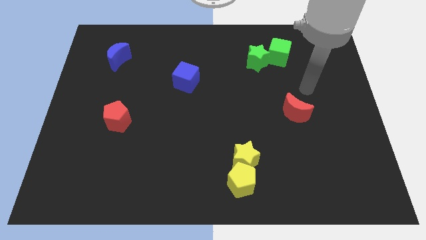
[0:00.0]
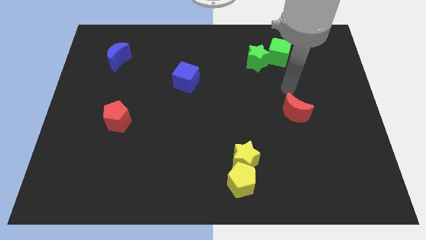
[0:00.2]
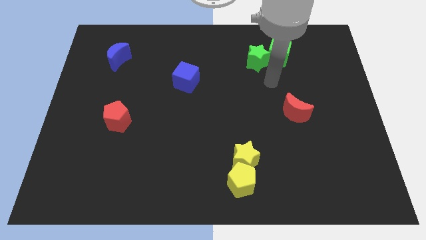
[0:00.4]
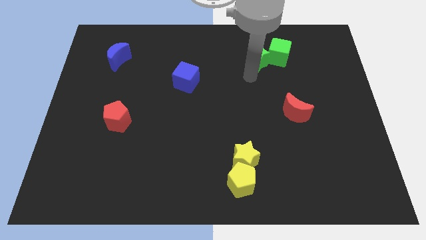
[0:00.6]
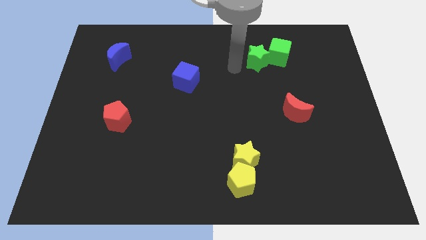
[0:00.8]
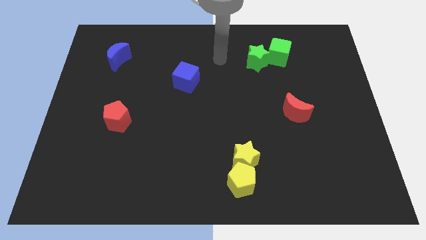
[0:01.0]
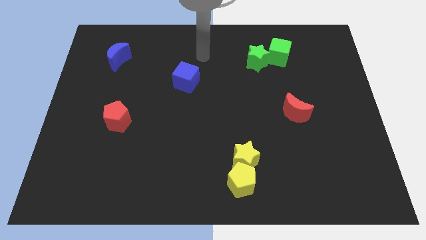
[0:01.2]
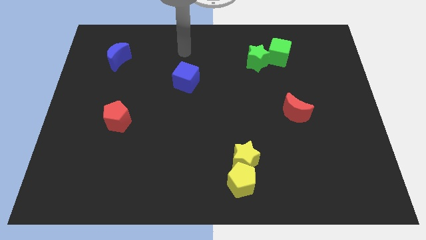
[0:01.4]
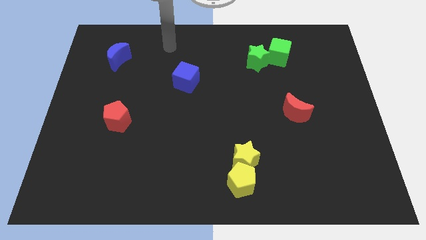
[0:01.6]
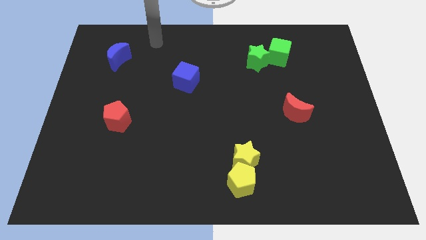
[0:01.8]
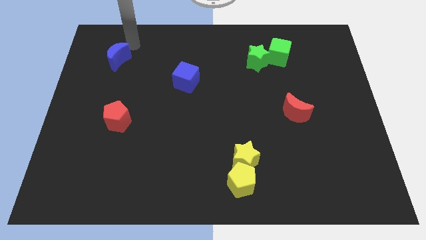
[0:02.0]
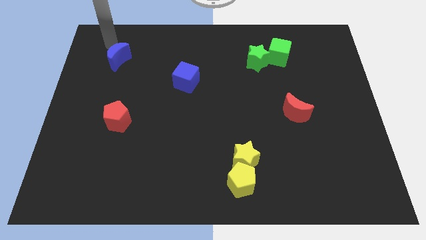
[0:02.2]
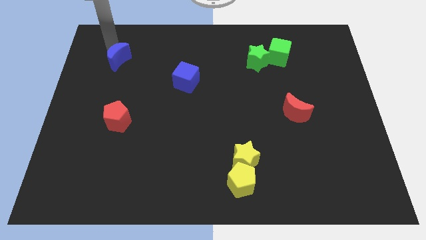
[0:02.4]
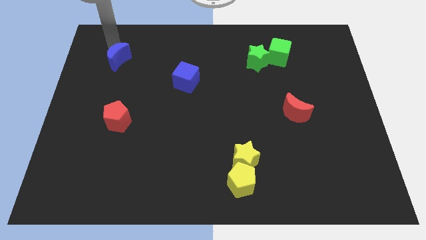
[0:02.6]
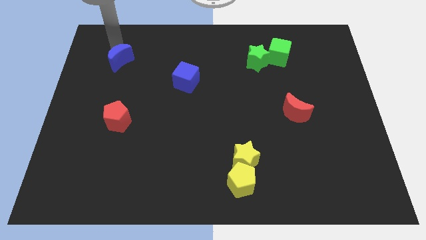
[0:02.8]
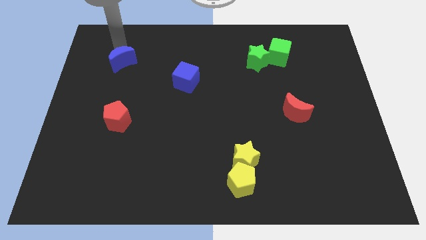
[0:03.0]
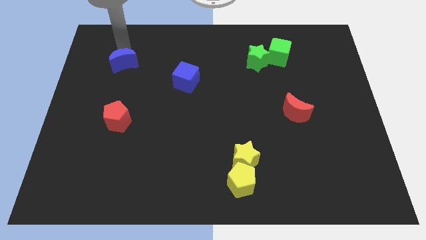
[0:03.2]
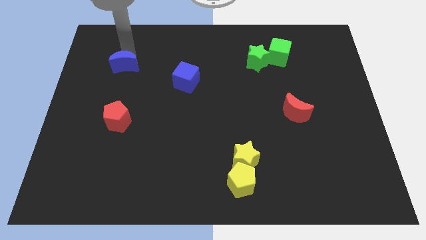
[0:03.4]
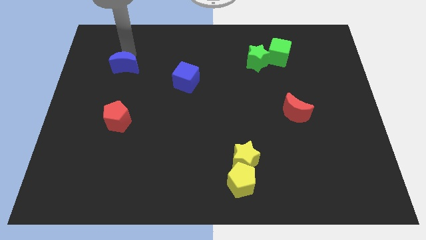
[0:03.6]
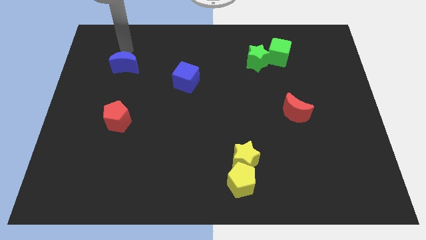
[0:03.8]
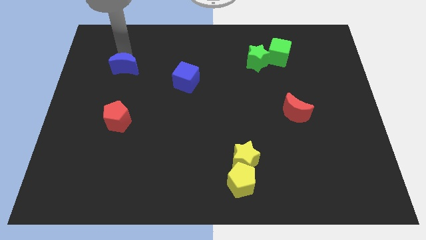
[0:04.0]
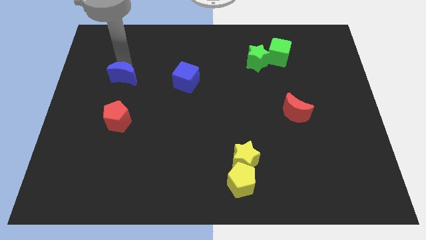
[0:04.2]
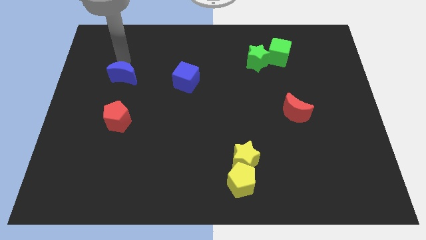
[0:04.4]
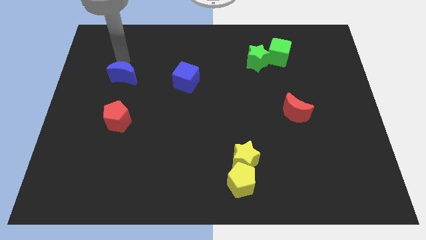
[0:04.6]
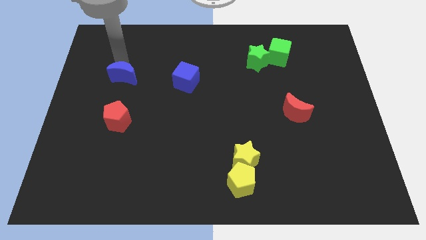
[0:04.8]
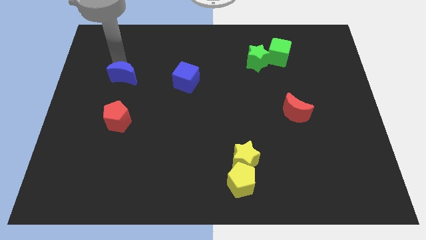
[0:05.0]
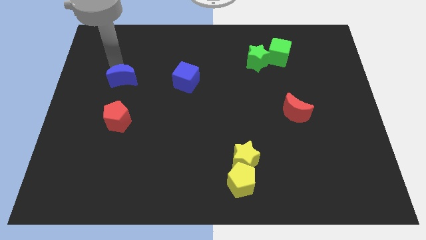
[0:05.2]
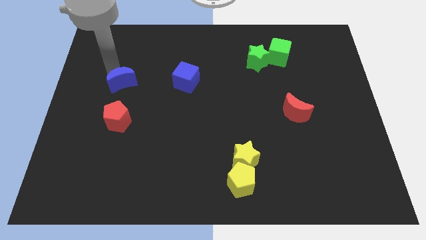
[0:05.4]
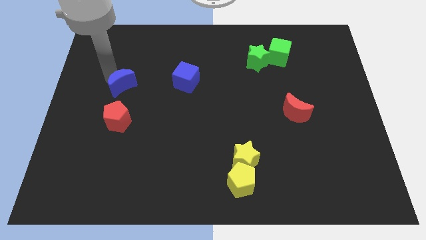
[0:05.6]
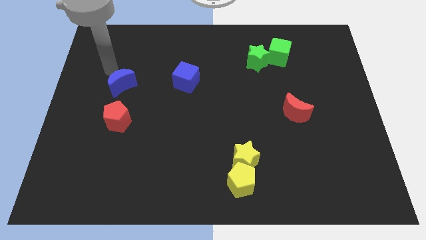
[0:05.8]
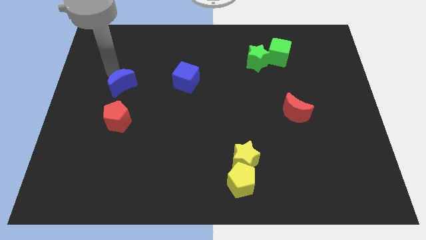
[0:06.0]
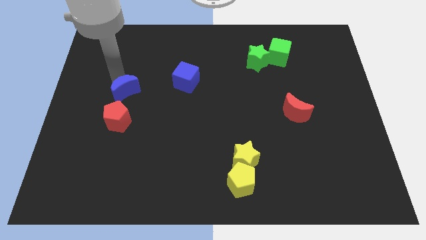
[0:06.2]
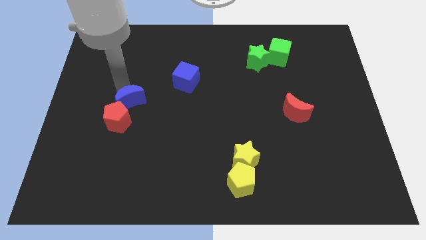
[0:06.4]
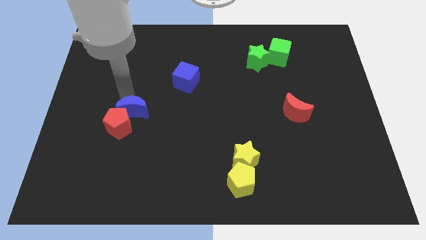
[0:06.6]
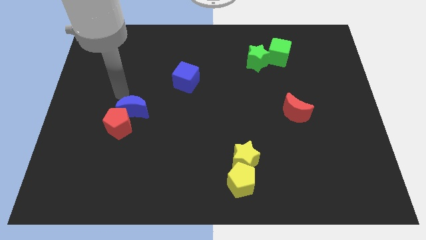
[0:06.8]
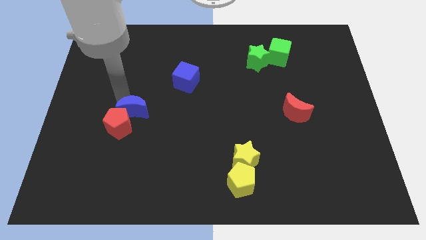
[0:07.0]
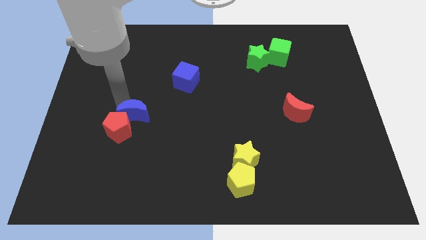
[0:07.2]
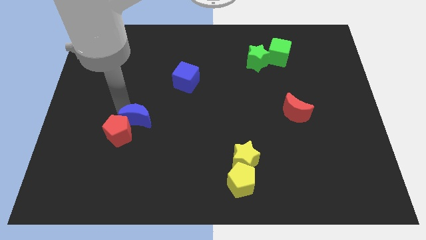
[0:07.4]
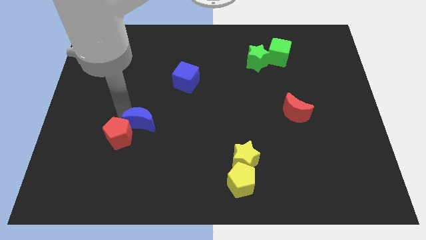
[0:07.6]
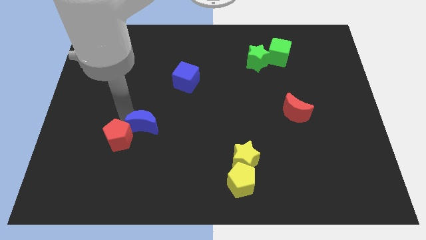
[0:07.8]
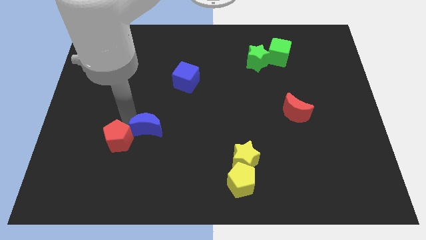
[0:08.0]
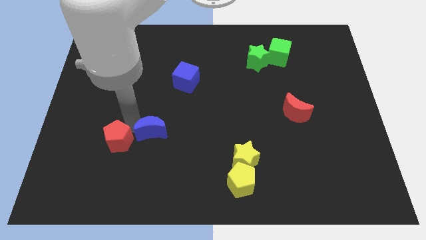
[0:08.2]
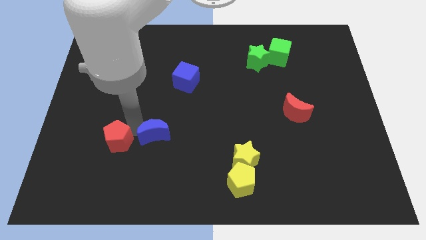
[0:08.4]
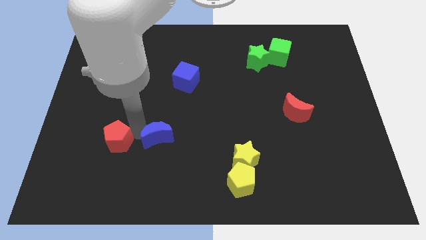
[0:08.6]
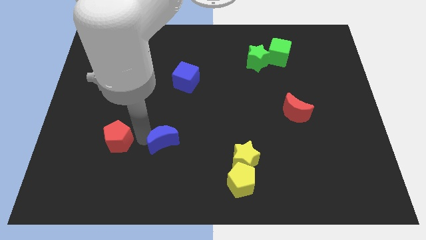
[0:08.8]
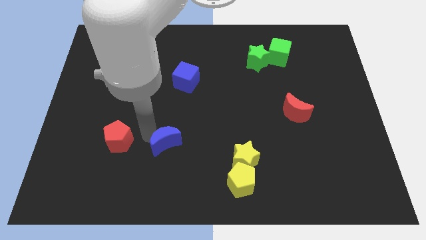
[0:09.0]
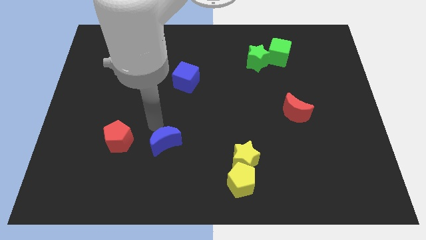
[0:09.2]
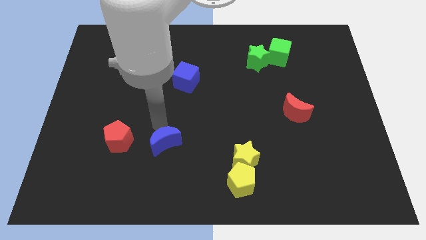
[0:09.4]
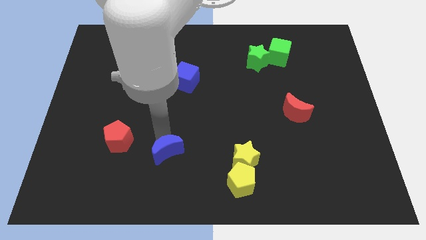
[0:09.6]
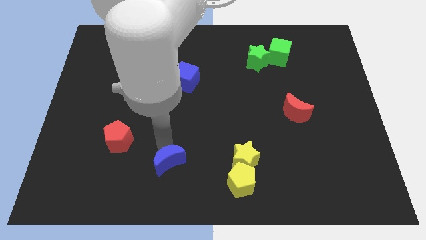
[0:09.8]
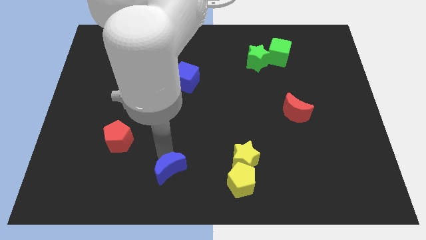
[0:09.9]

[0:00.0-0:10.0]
put the blue moon to the bottom
